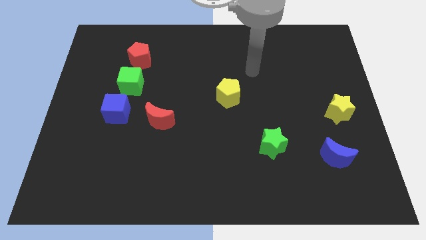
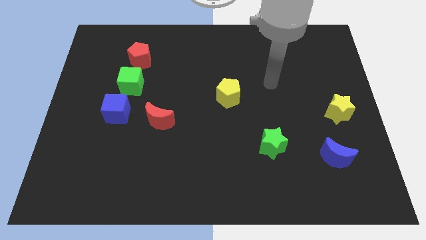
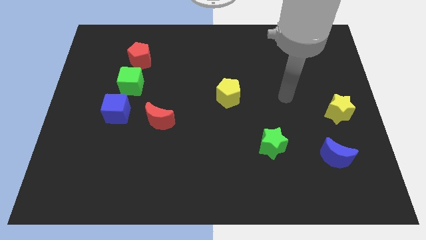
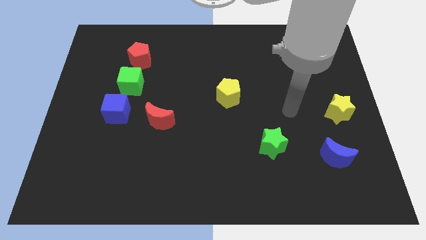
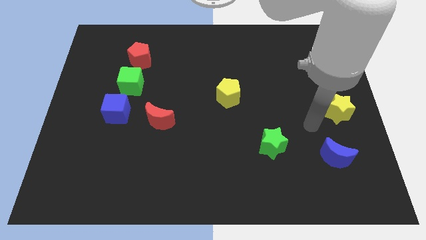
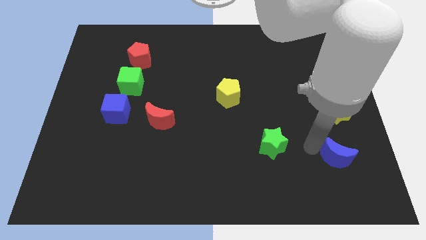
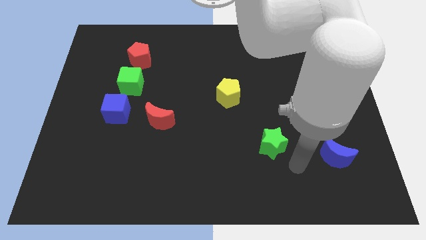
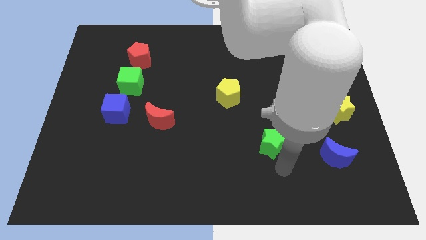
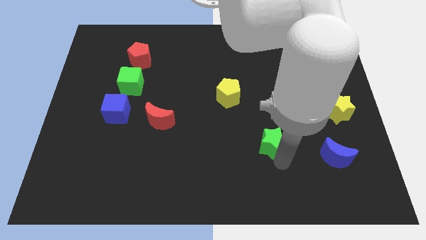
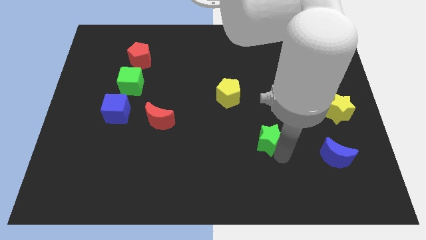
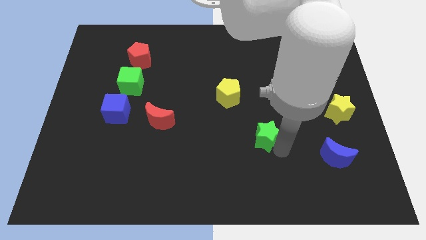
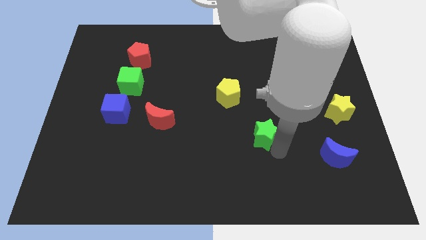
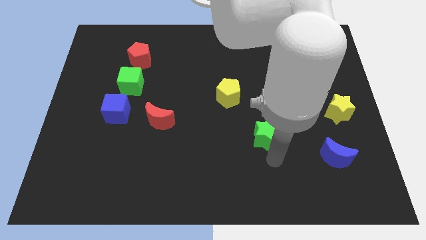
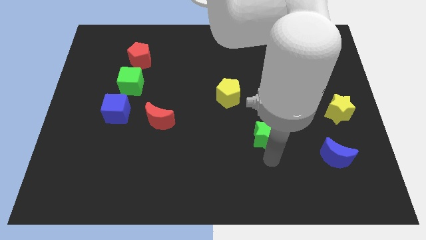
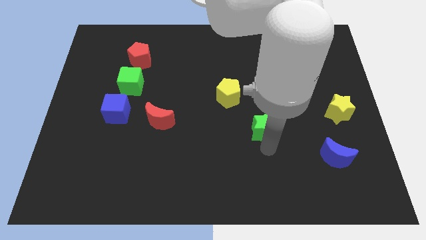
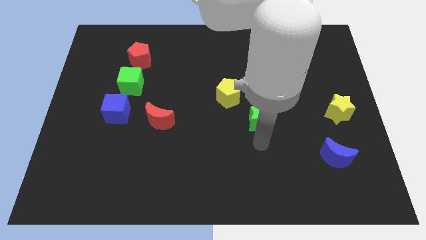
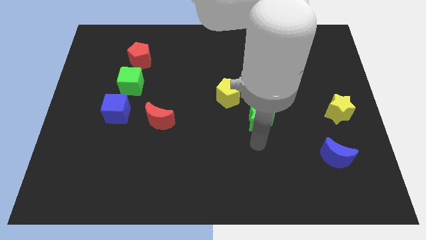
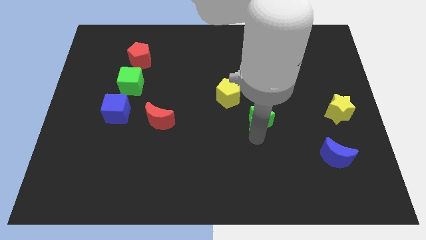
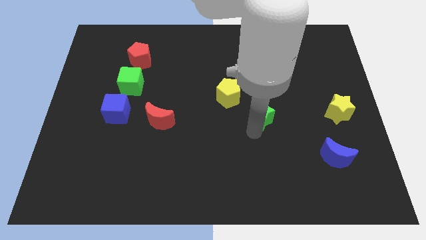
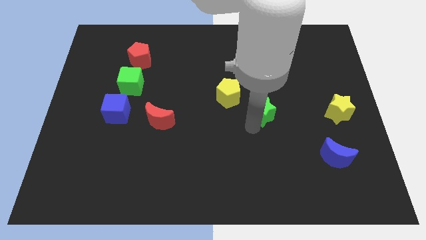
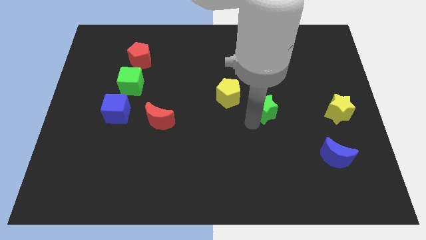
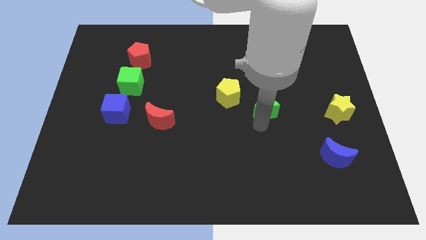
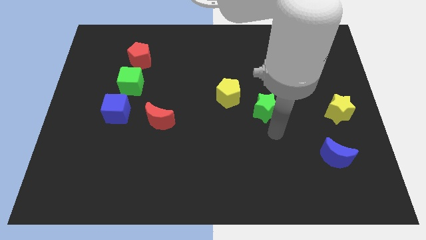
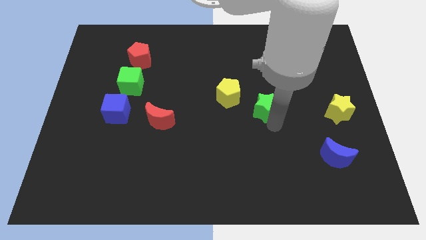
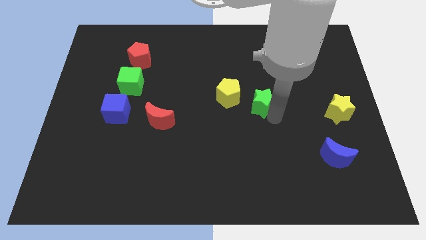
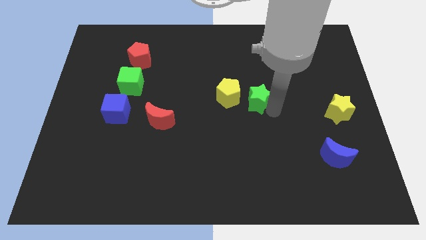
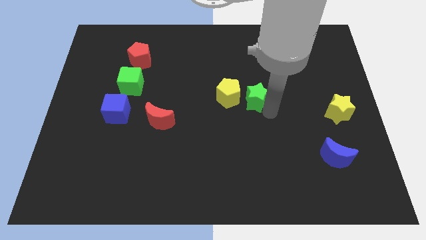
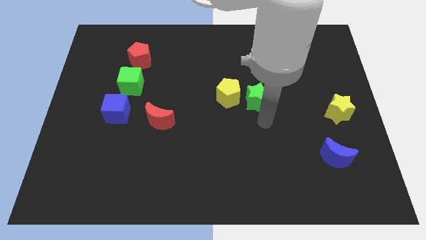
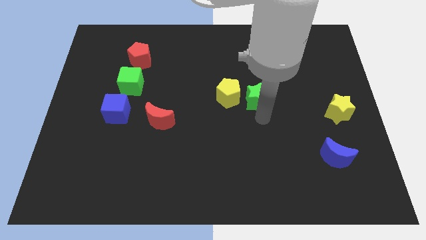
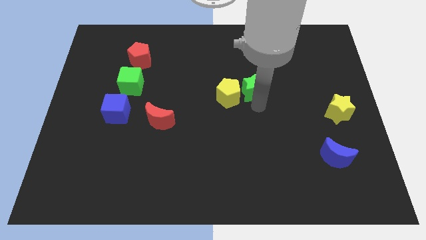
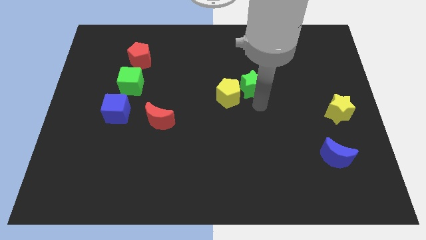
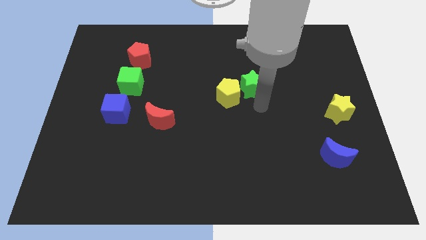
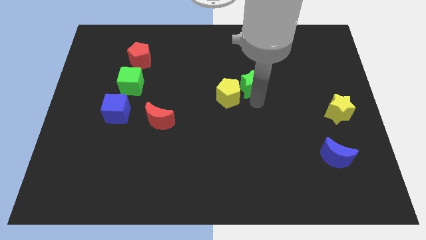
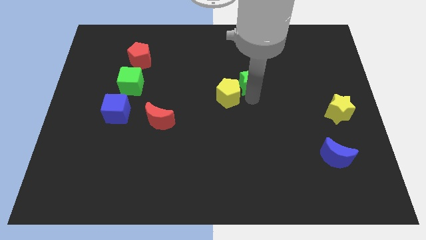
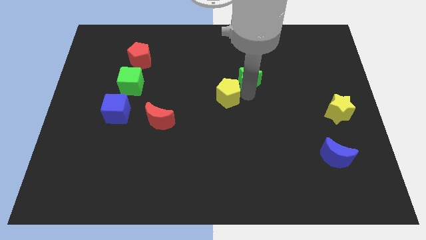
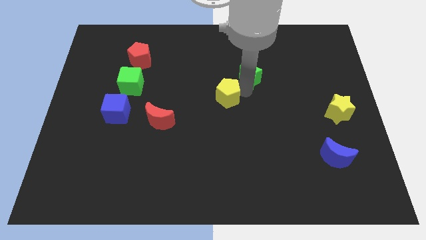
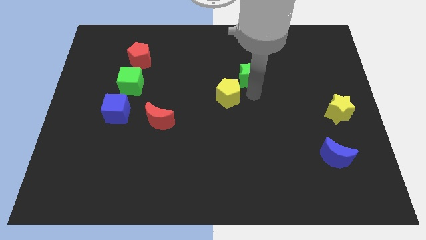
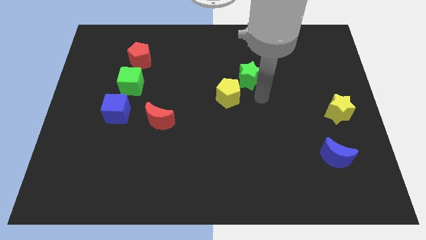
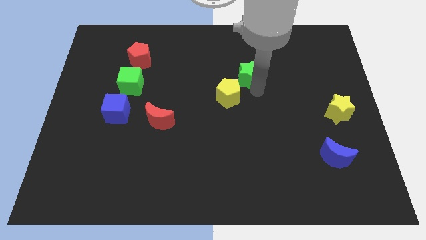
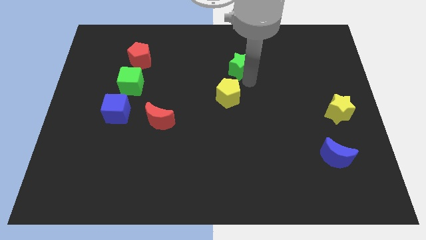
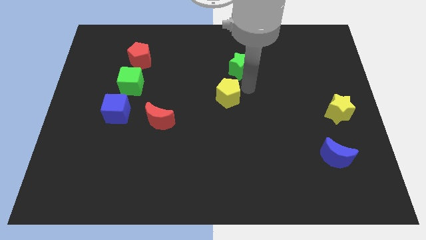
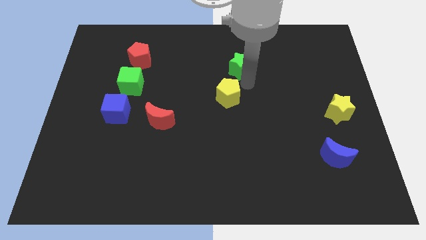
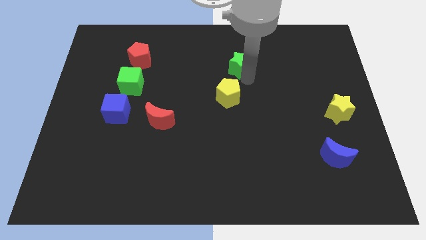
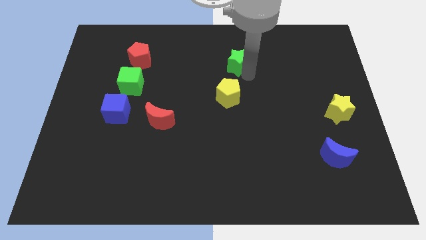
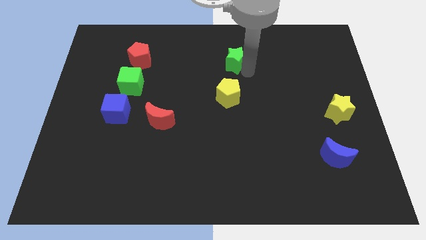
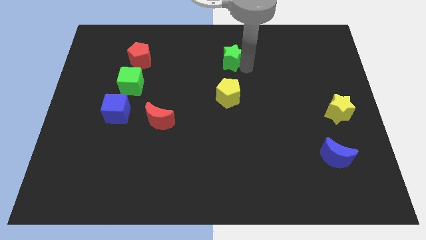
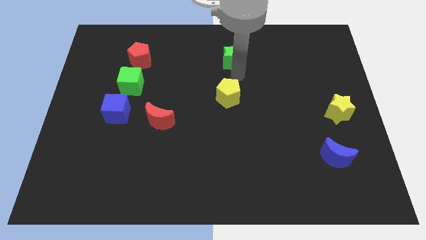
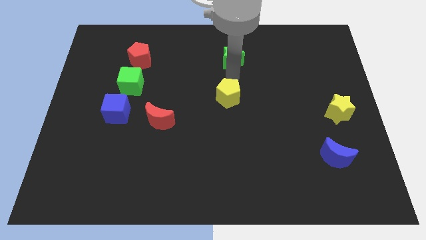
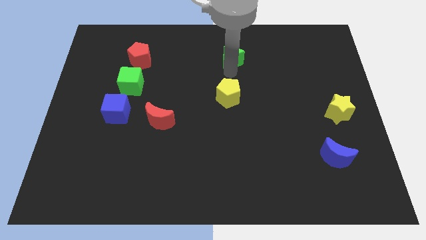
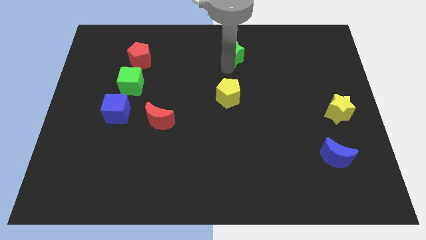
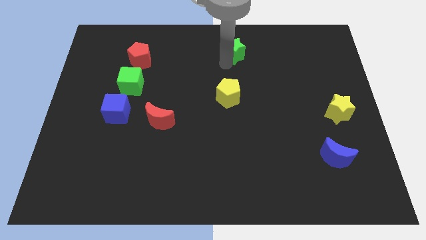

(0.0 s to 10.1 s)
slide the green star to the top side
